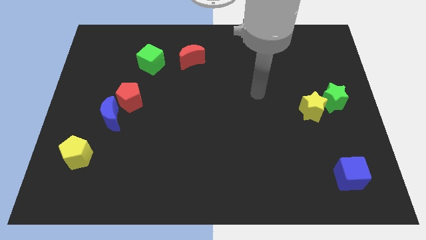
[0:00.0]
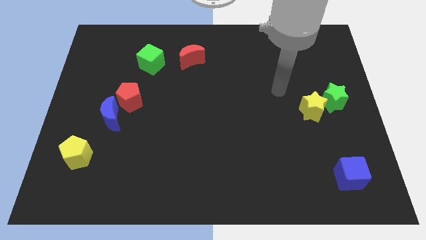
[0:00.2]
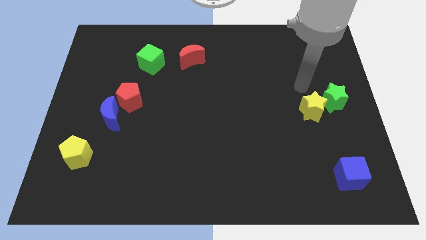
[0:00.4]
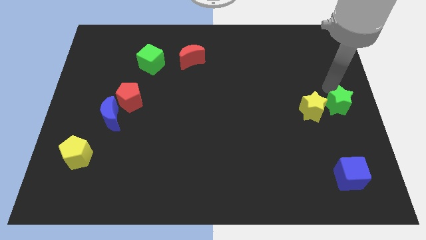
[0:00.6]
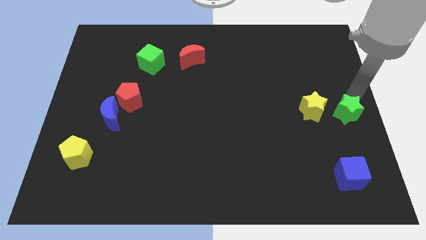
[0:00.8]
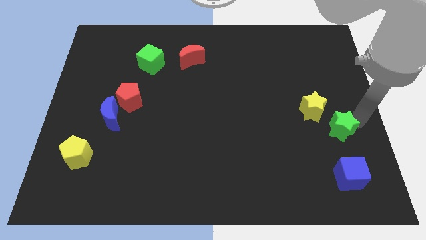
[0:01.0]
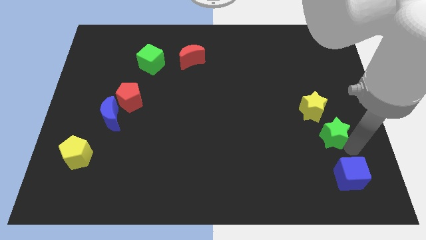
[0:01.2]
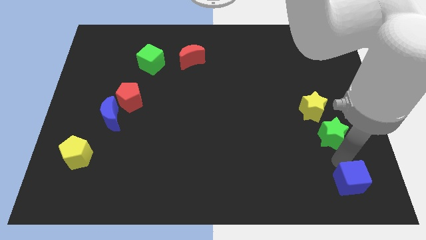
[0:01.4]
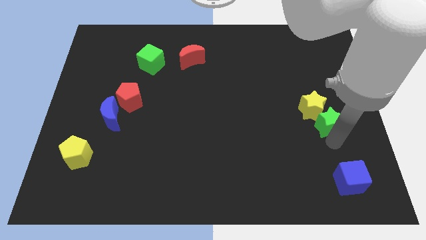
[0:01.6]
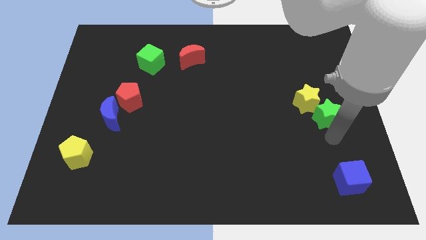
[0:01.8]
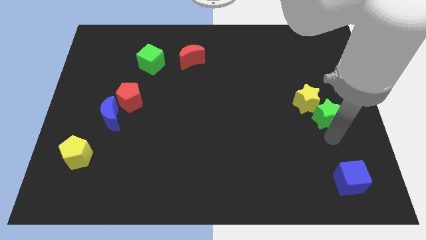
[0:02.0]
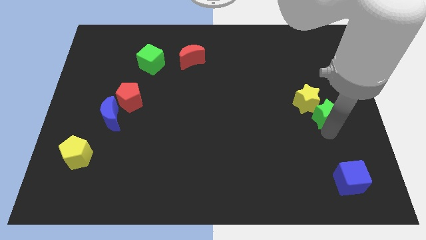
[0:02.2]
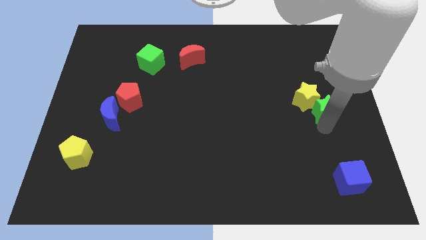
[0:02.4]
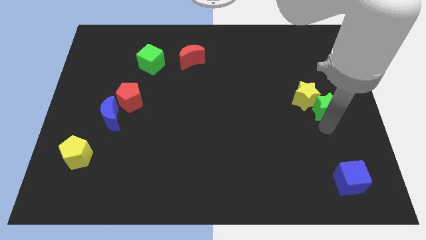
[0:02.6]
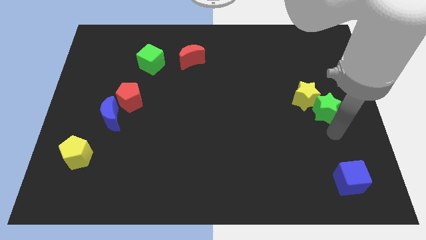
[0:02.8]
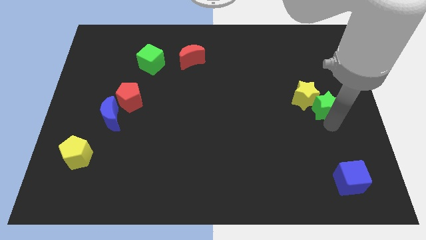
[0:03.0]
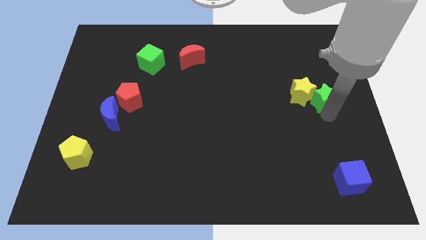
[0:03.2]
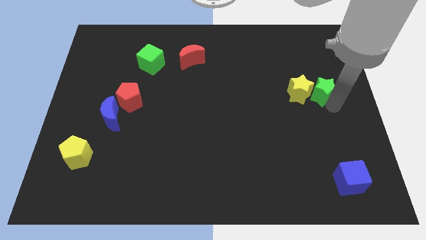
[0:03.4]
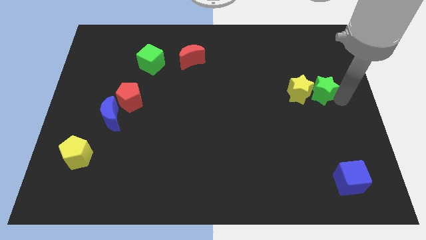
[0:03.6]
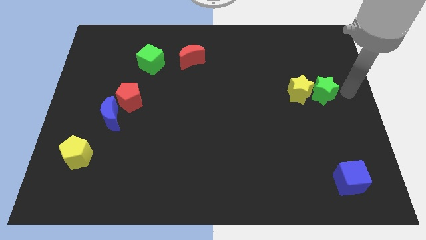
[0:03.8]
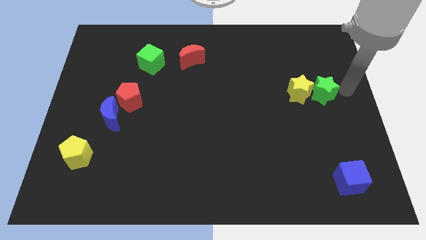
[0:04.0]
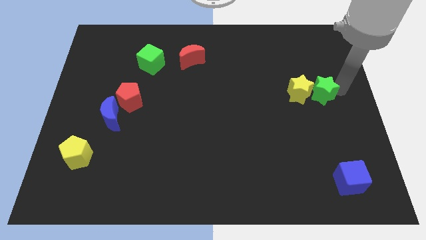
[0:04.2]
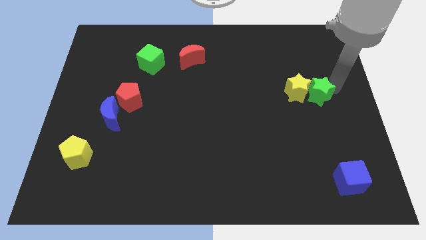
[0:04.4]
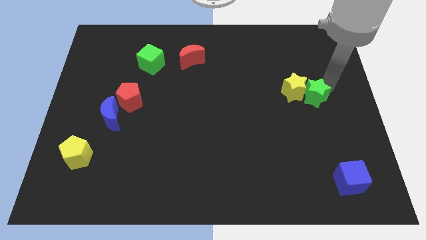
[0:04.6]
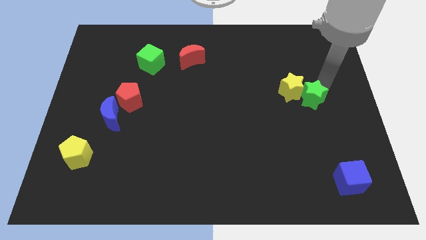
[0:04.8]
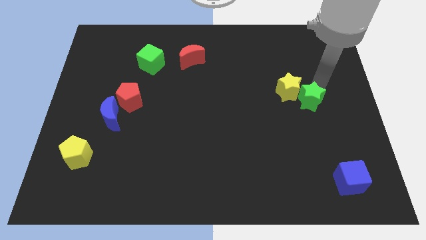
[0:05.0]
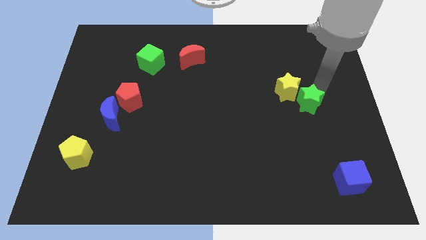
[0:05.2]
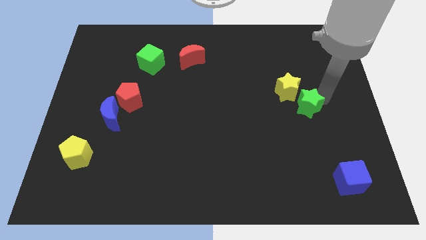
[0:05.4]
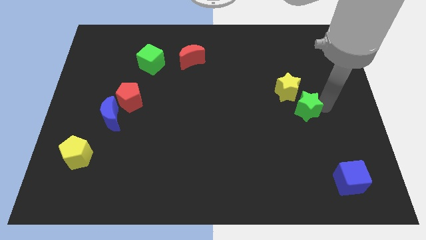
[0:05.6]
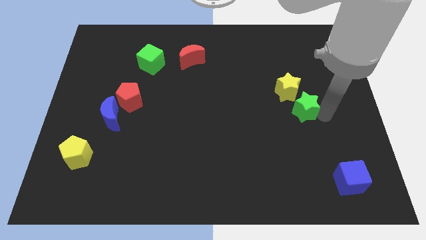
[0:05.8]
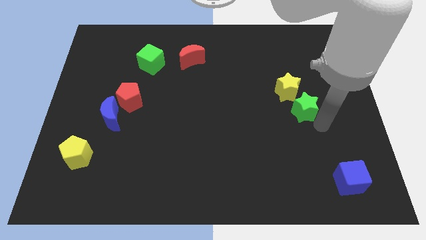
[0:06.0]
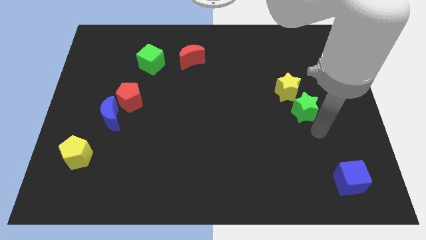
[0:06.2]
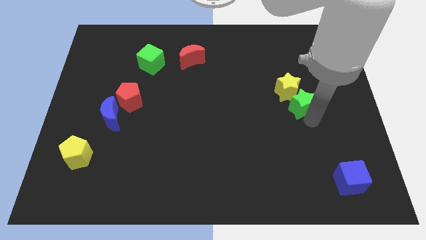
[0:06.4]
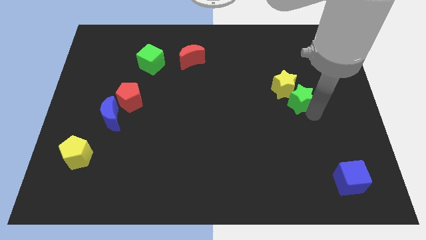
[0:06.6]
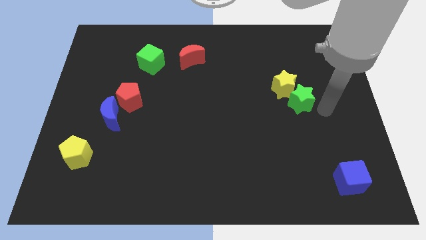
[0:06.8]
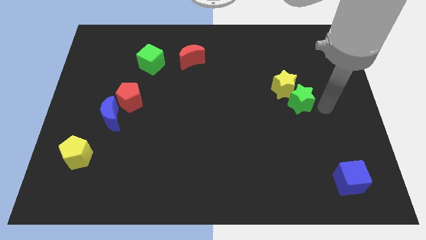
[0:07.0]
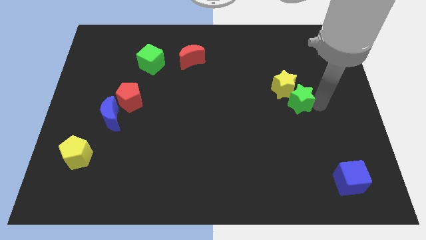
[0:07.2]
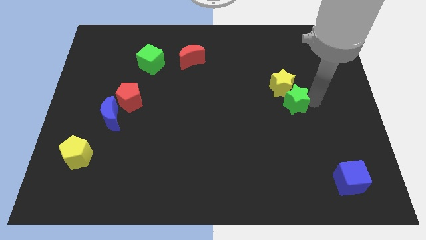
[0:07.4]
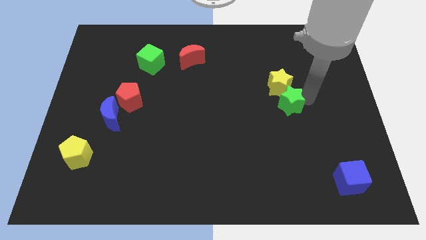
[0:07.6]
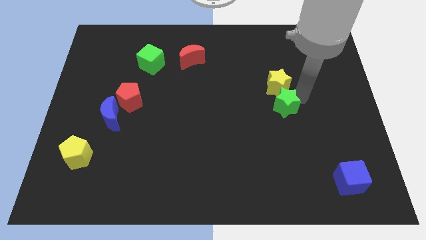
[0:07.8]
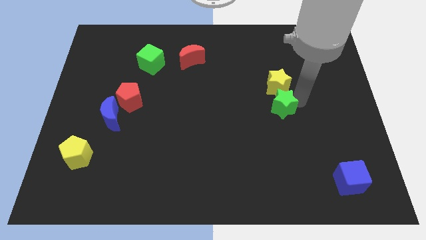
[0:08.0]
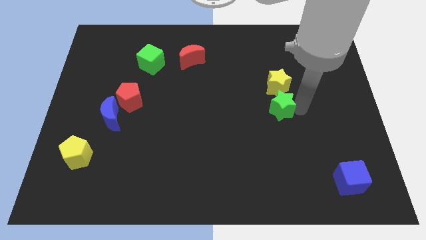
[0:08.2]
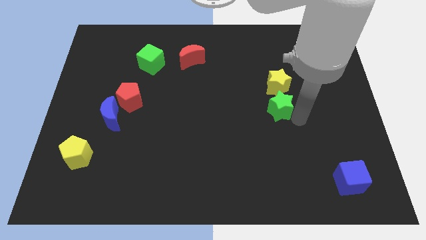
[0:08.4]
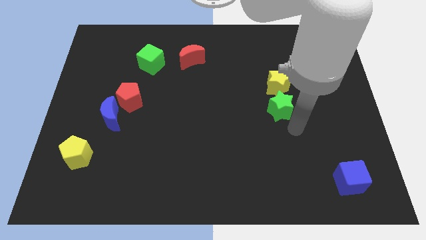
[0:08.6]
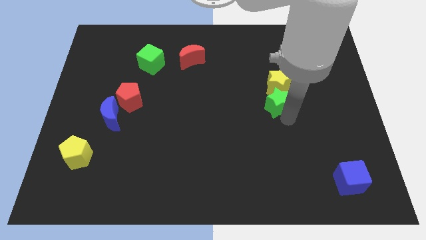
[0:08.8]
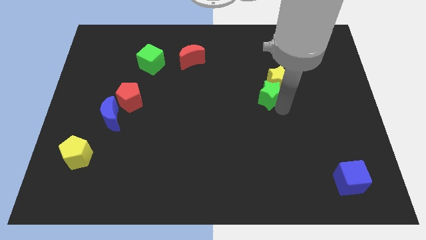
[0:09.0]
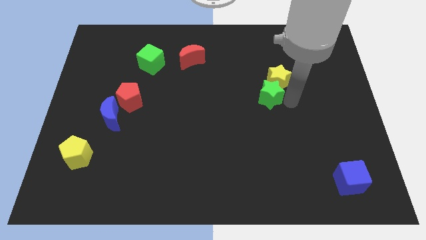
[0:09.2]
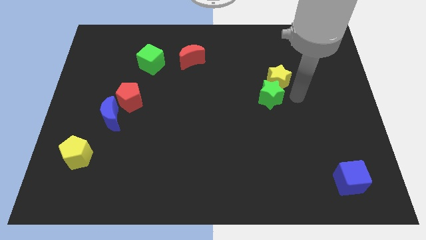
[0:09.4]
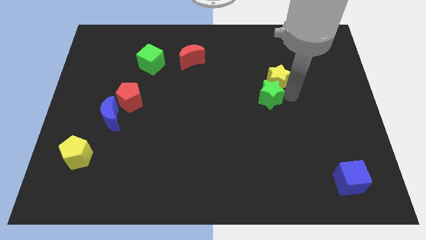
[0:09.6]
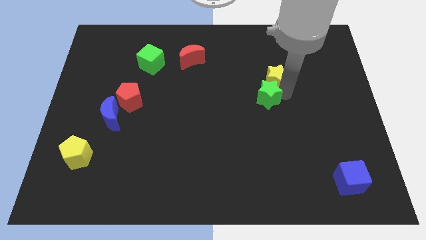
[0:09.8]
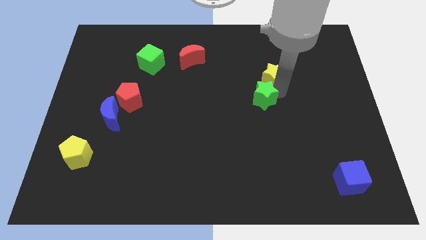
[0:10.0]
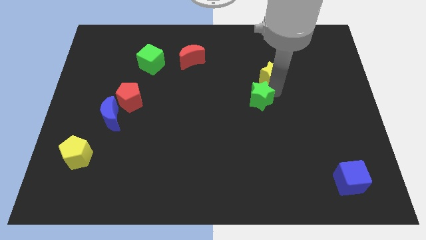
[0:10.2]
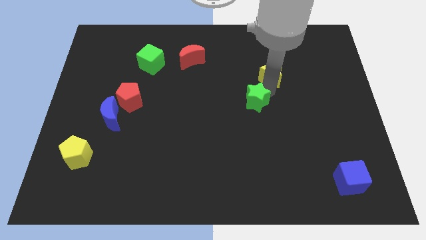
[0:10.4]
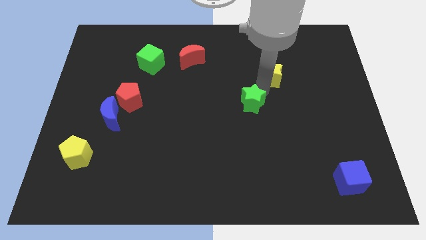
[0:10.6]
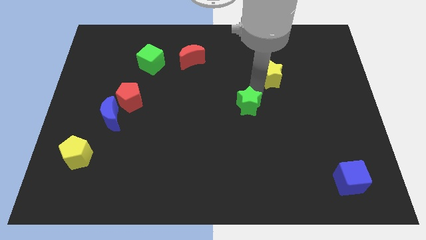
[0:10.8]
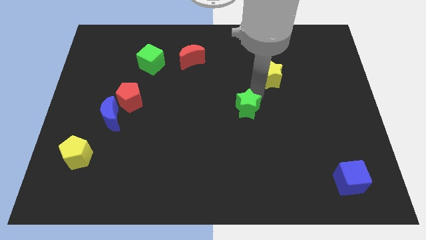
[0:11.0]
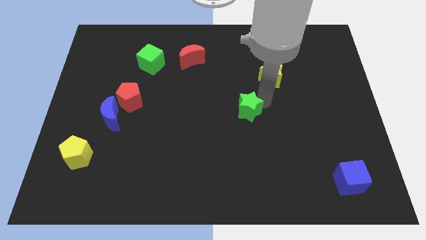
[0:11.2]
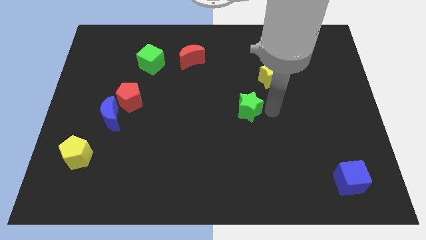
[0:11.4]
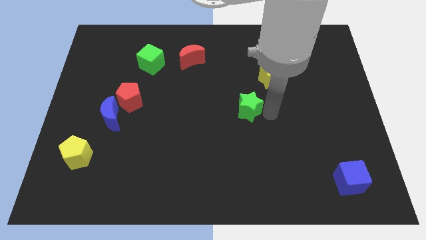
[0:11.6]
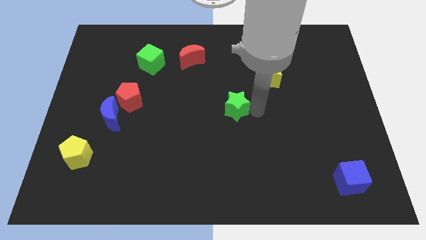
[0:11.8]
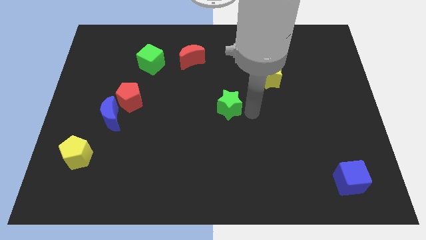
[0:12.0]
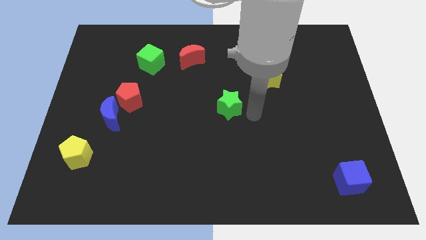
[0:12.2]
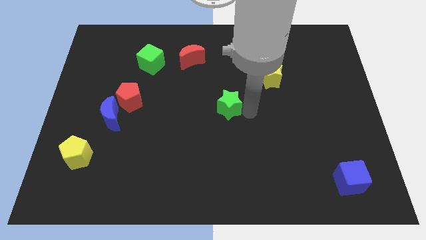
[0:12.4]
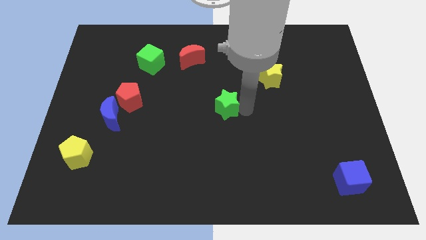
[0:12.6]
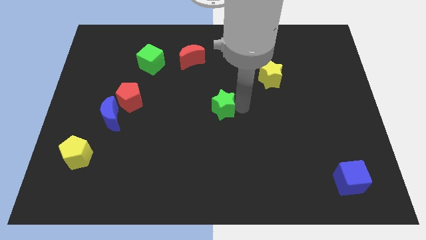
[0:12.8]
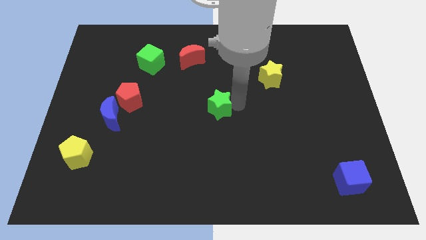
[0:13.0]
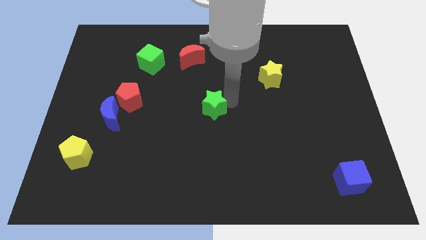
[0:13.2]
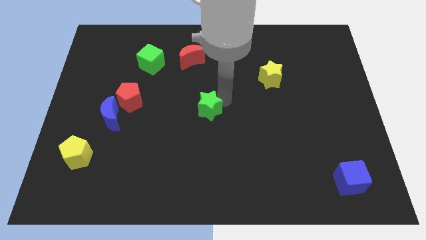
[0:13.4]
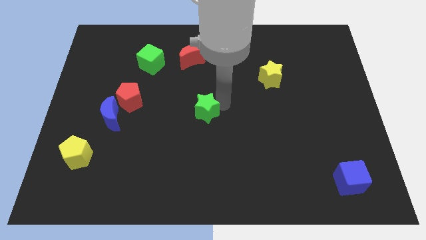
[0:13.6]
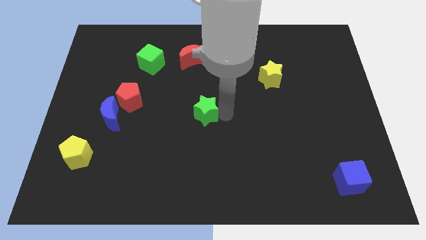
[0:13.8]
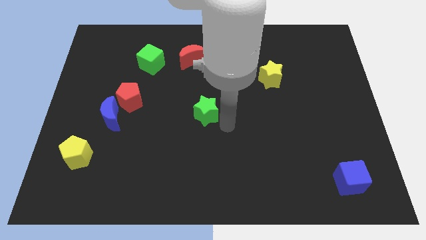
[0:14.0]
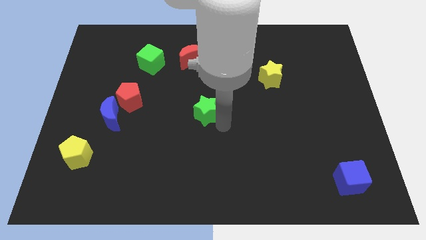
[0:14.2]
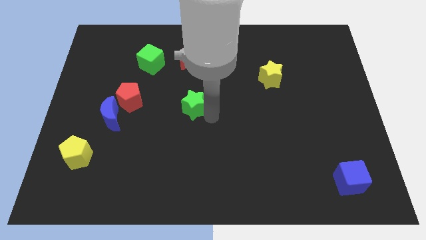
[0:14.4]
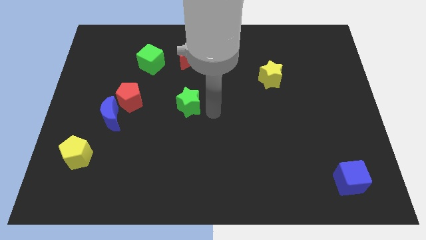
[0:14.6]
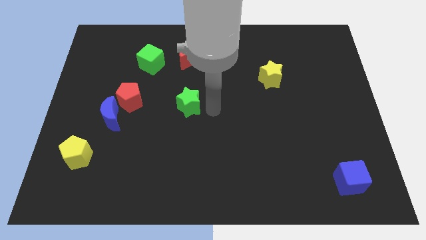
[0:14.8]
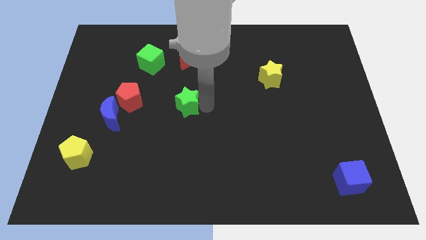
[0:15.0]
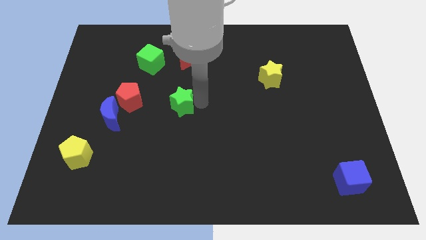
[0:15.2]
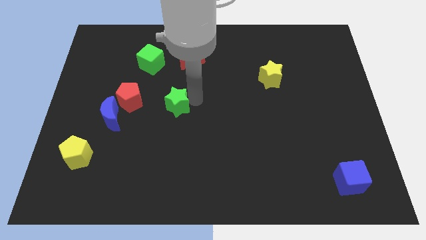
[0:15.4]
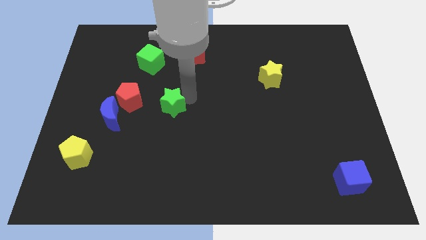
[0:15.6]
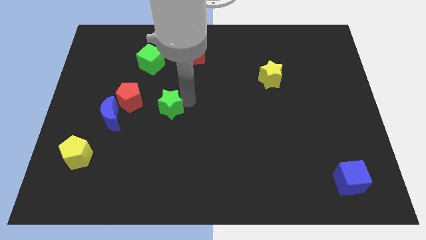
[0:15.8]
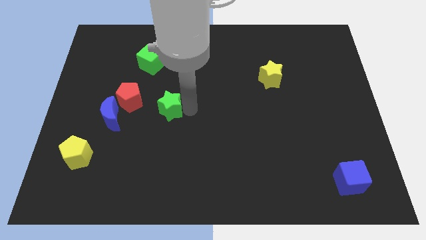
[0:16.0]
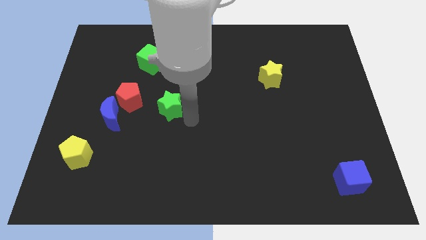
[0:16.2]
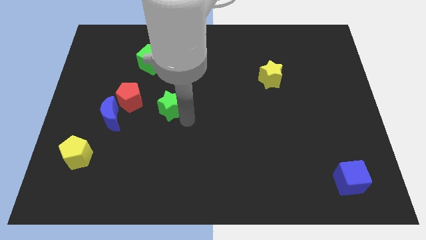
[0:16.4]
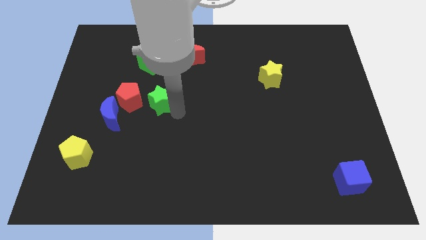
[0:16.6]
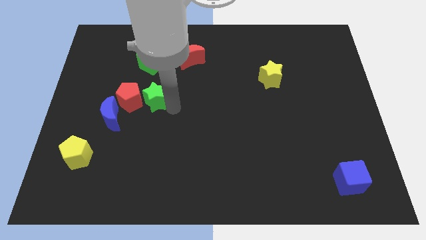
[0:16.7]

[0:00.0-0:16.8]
move the green star to the red pentagon
